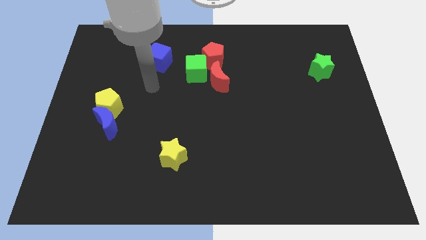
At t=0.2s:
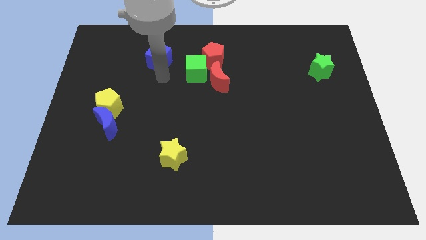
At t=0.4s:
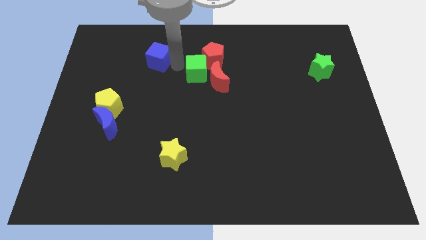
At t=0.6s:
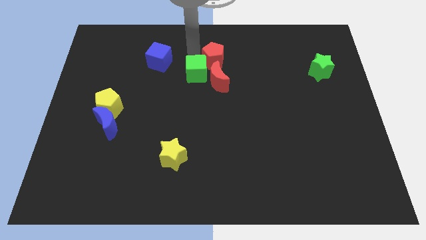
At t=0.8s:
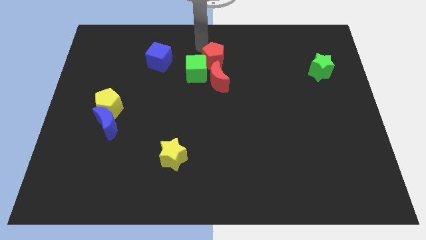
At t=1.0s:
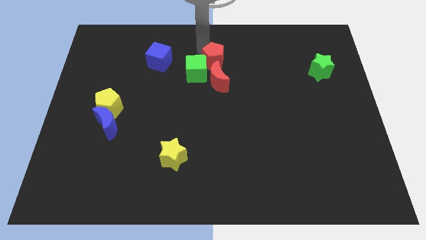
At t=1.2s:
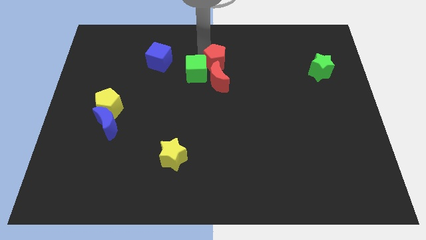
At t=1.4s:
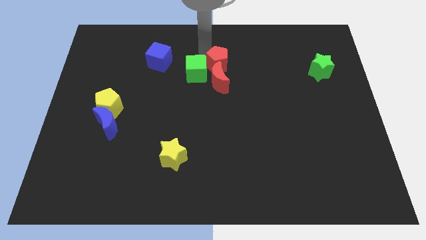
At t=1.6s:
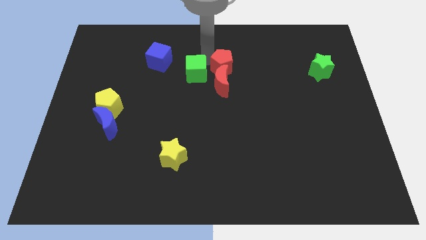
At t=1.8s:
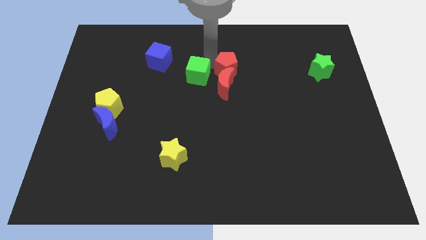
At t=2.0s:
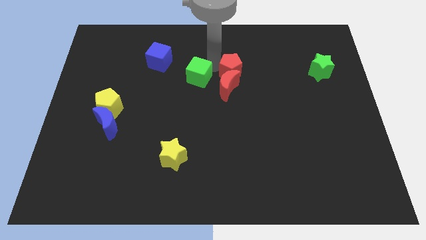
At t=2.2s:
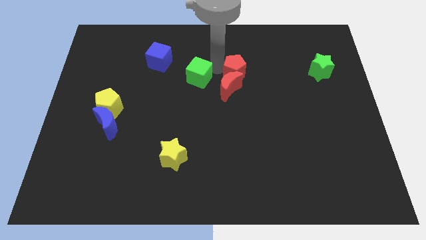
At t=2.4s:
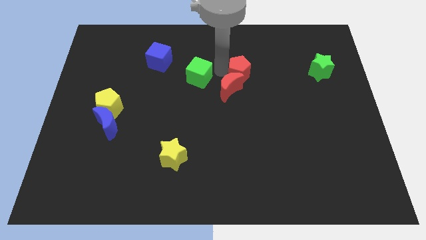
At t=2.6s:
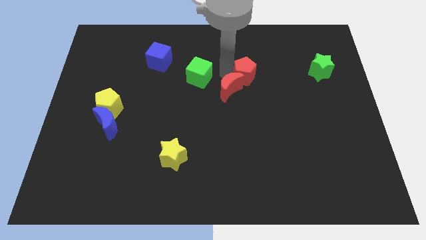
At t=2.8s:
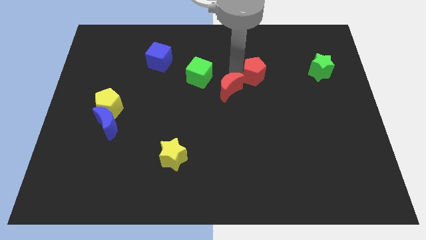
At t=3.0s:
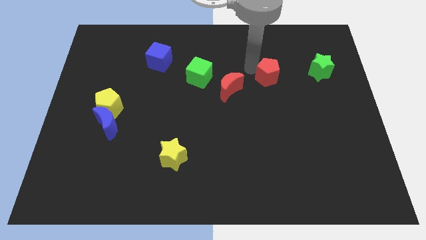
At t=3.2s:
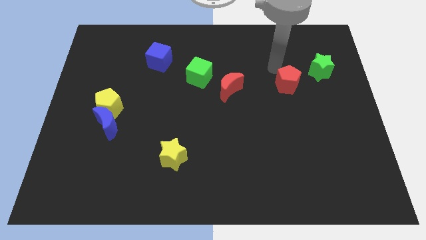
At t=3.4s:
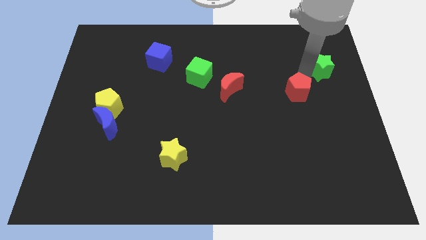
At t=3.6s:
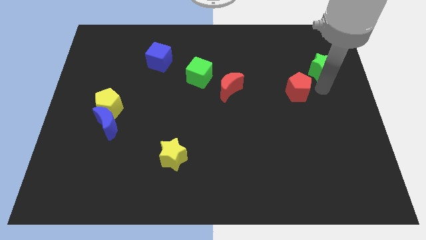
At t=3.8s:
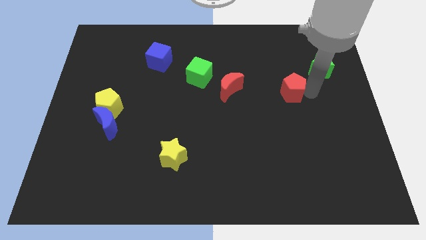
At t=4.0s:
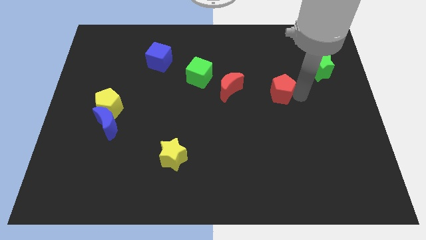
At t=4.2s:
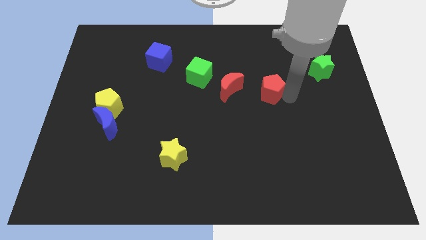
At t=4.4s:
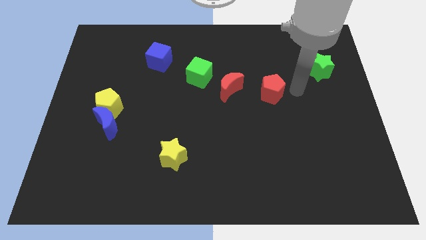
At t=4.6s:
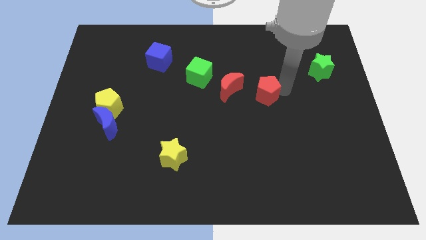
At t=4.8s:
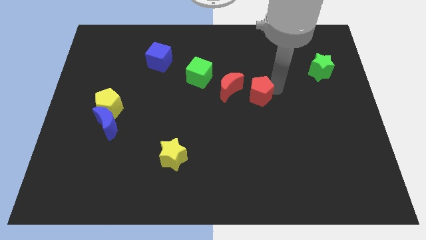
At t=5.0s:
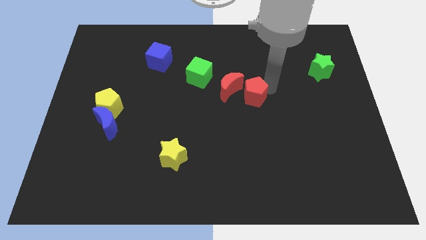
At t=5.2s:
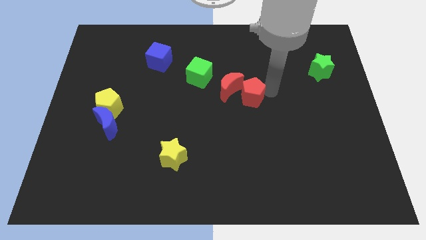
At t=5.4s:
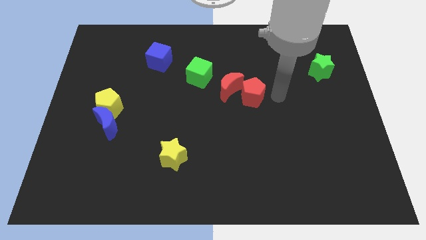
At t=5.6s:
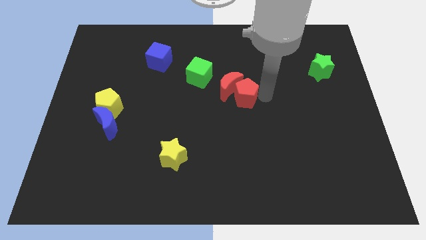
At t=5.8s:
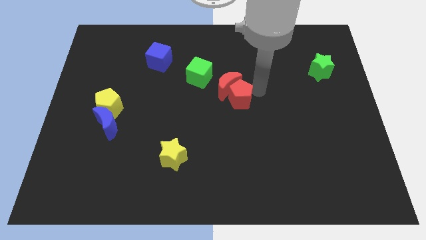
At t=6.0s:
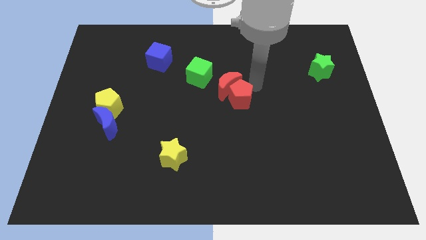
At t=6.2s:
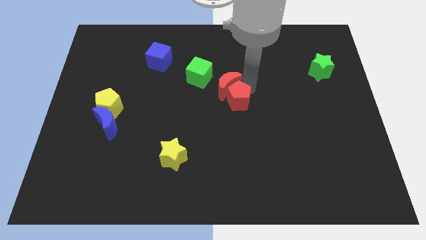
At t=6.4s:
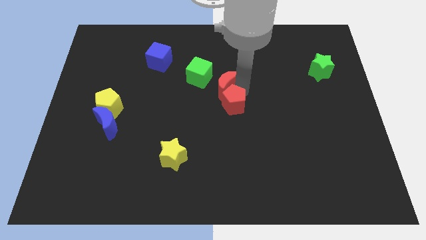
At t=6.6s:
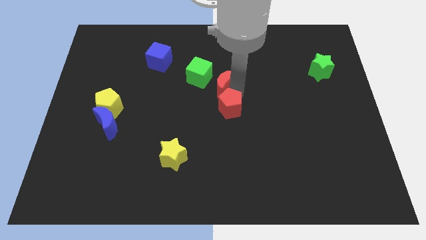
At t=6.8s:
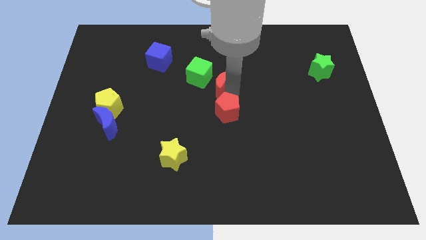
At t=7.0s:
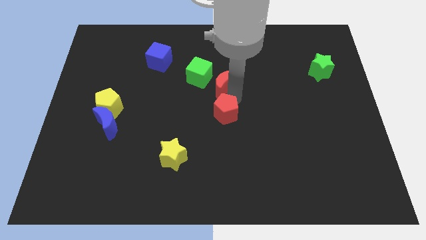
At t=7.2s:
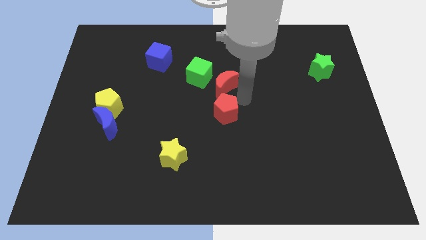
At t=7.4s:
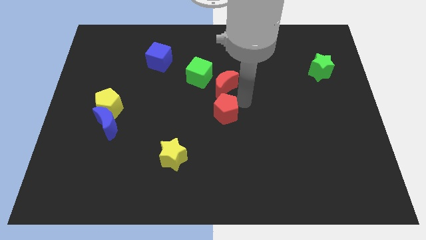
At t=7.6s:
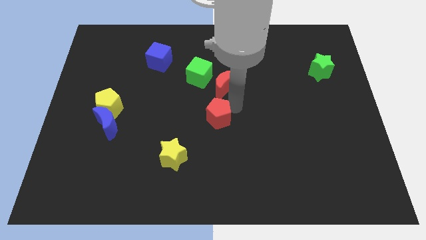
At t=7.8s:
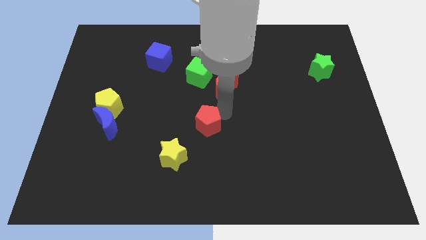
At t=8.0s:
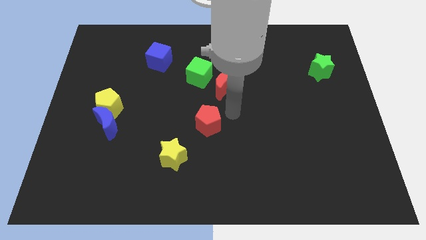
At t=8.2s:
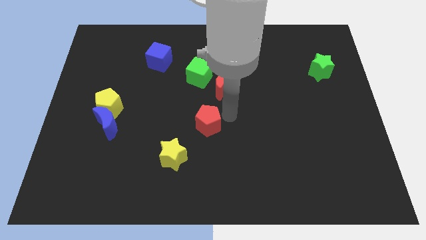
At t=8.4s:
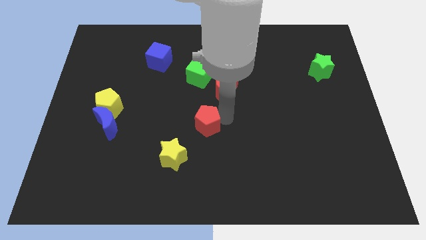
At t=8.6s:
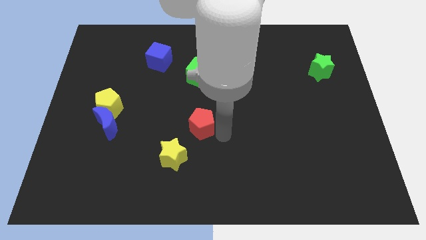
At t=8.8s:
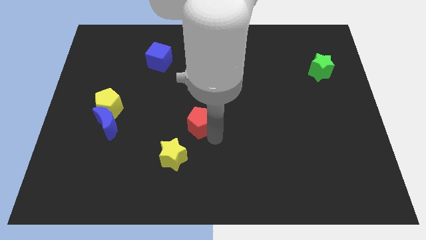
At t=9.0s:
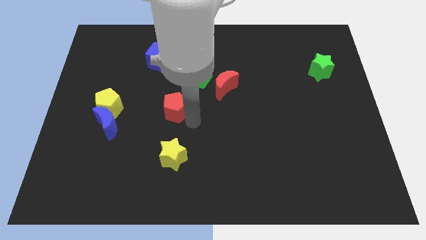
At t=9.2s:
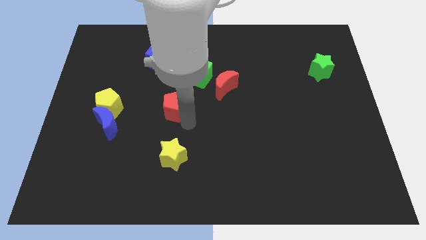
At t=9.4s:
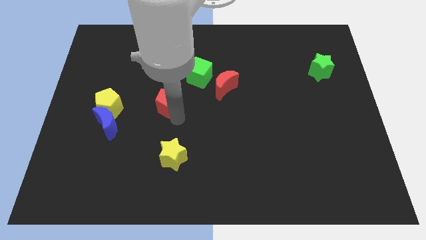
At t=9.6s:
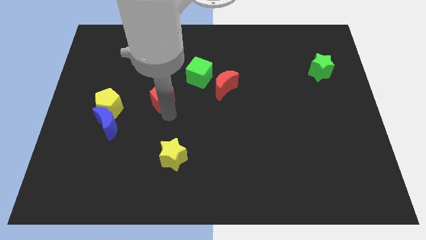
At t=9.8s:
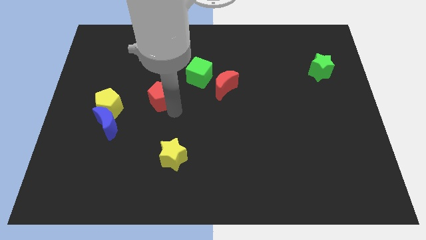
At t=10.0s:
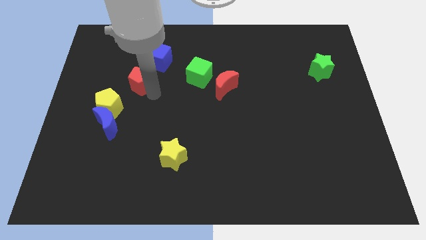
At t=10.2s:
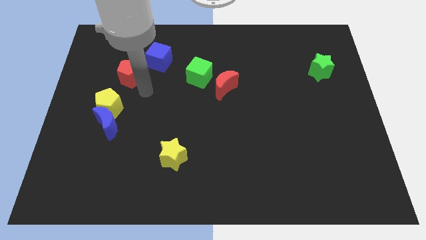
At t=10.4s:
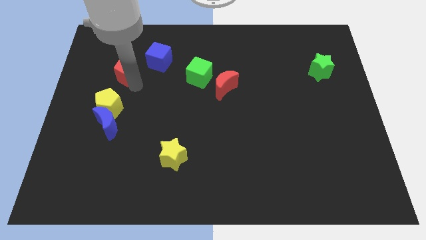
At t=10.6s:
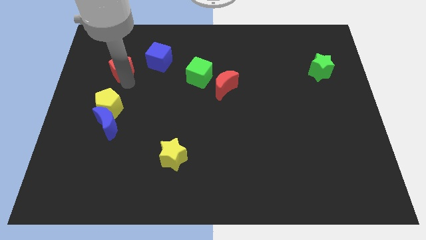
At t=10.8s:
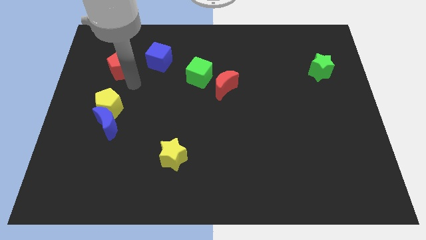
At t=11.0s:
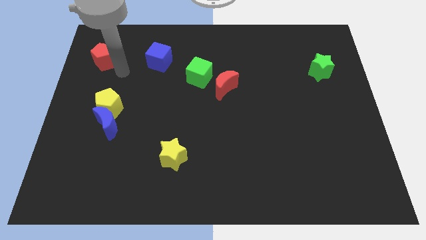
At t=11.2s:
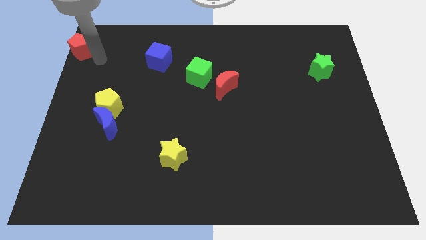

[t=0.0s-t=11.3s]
move the red pentagon to the upper left corner

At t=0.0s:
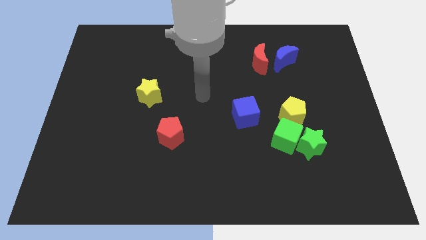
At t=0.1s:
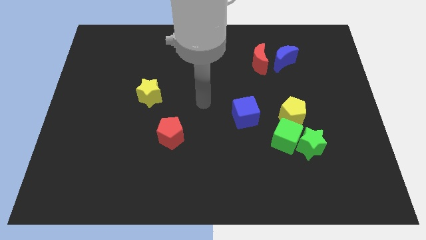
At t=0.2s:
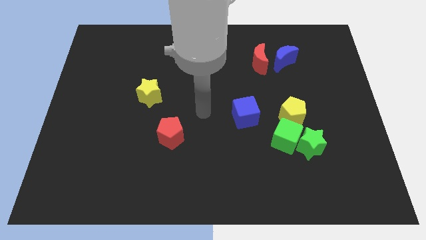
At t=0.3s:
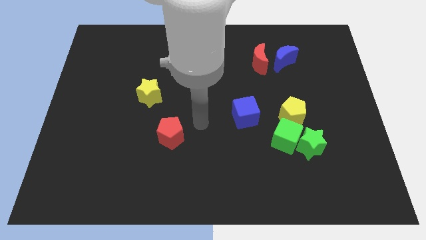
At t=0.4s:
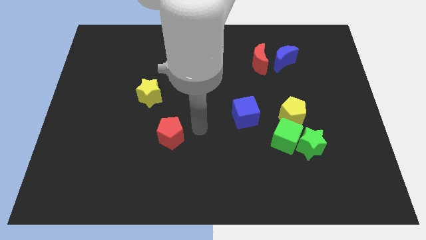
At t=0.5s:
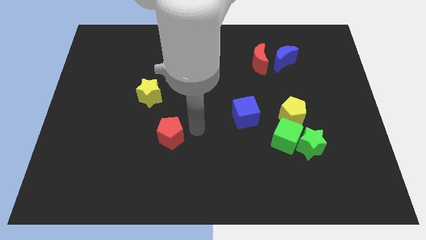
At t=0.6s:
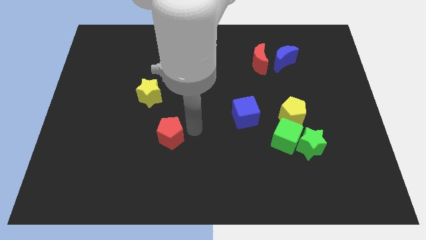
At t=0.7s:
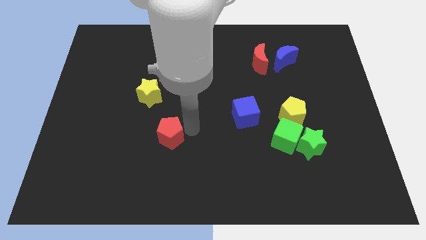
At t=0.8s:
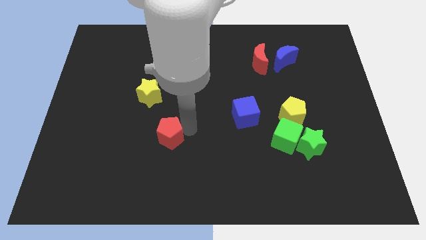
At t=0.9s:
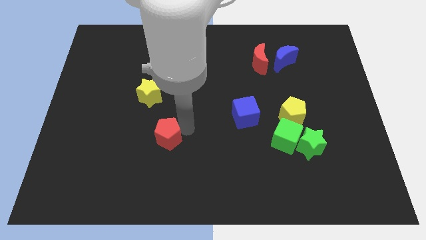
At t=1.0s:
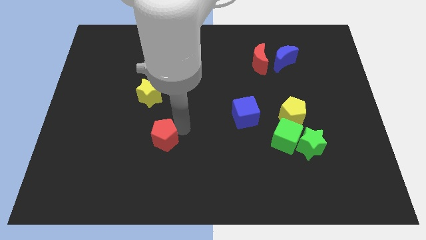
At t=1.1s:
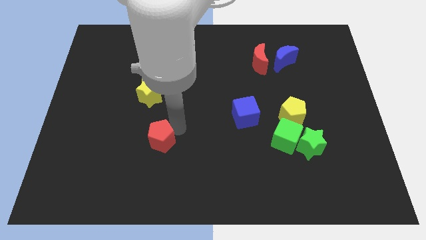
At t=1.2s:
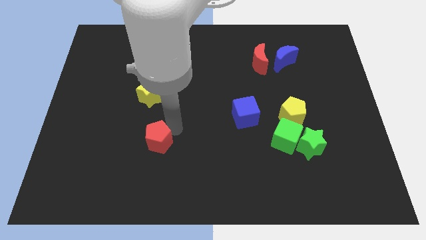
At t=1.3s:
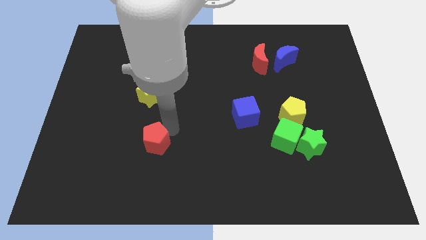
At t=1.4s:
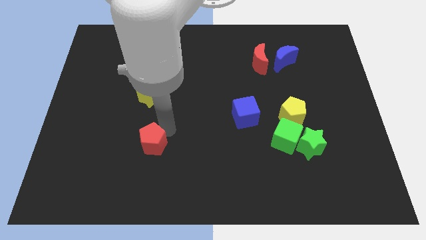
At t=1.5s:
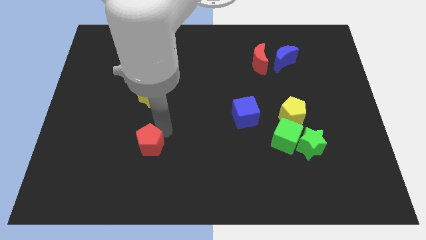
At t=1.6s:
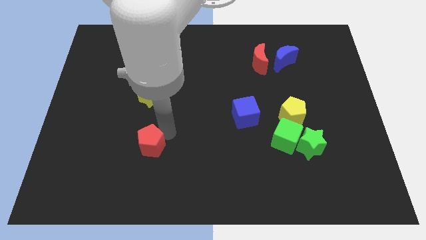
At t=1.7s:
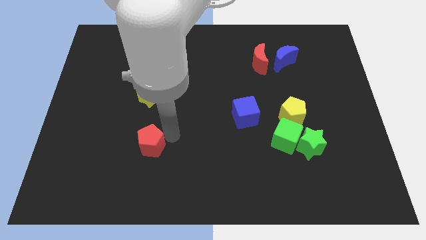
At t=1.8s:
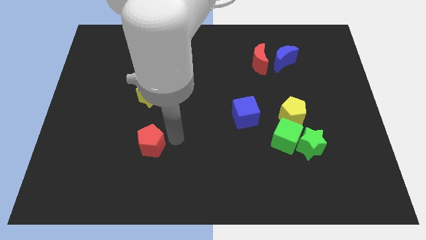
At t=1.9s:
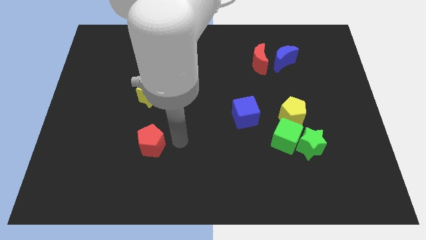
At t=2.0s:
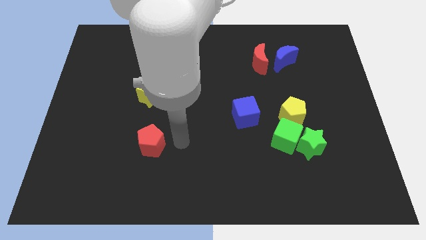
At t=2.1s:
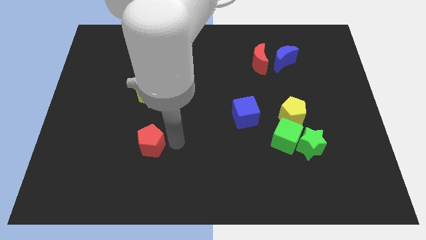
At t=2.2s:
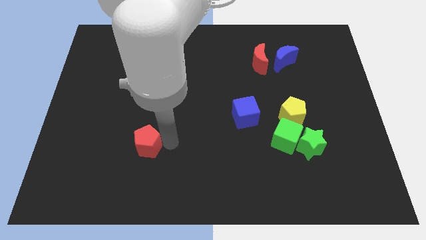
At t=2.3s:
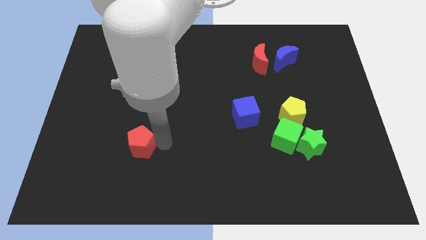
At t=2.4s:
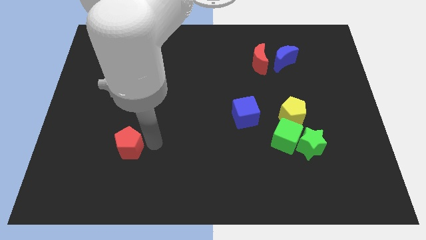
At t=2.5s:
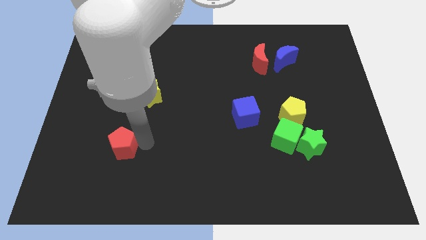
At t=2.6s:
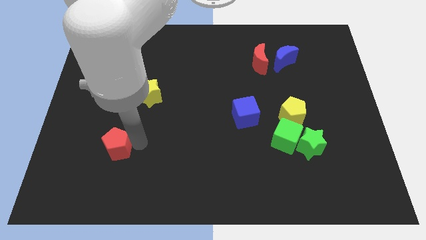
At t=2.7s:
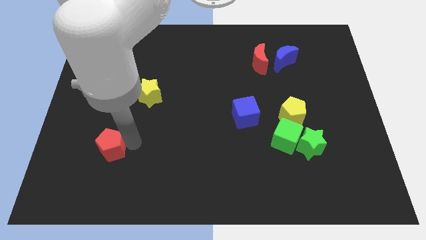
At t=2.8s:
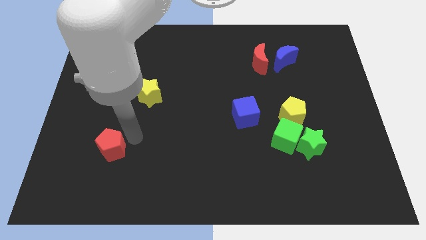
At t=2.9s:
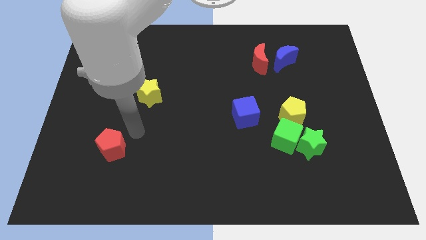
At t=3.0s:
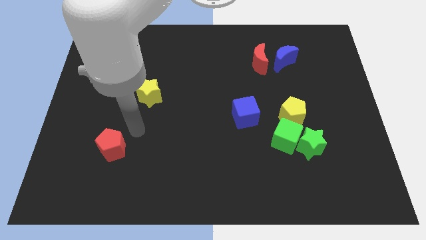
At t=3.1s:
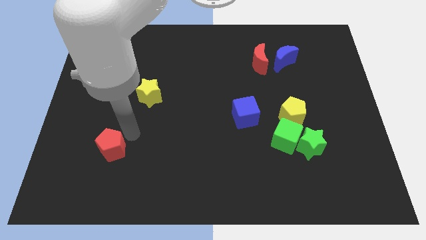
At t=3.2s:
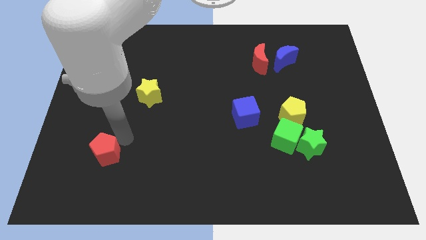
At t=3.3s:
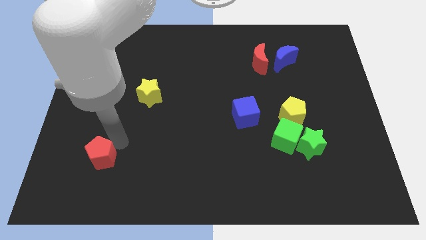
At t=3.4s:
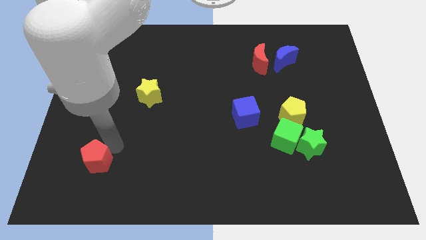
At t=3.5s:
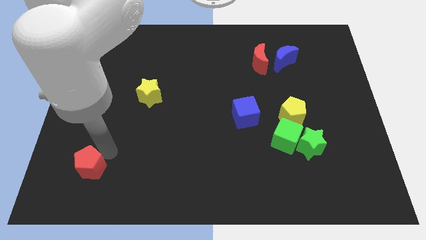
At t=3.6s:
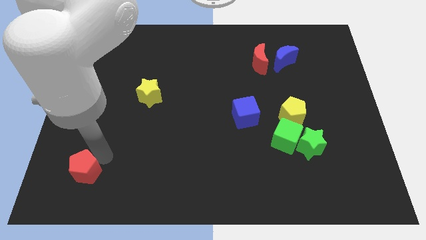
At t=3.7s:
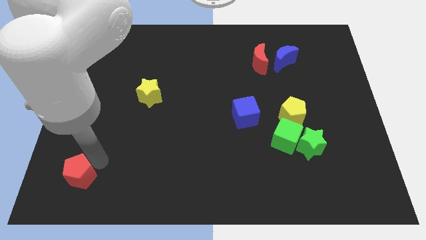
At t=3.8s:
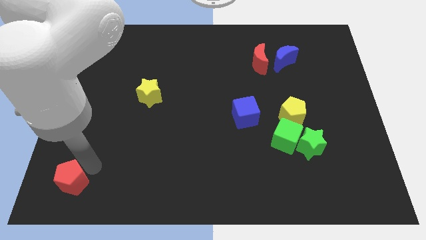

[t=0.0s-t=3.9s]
slide the red pentagon to the bottom left of the board
